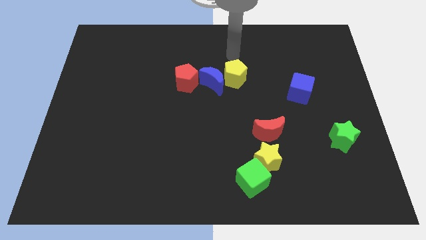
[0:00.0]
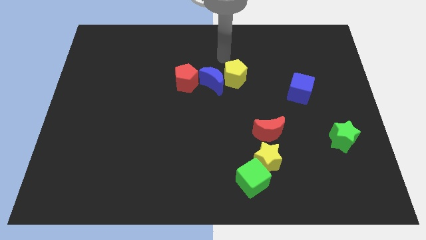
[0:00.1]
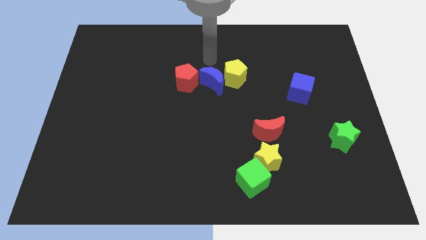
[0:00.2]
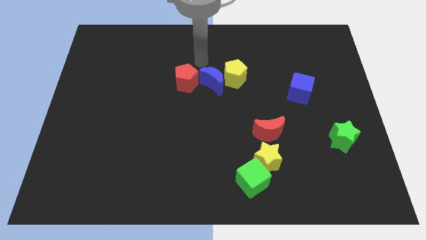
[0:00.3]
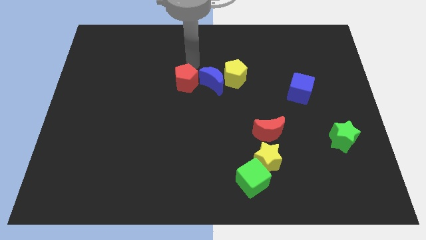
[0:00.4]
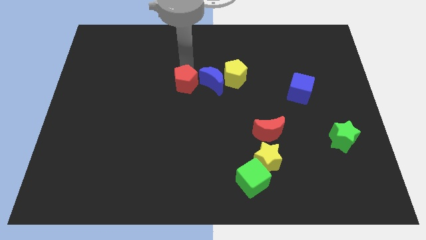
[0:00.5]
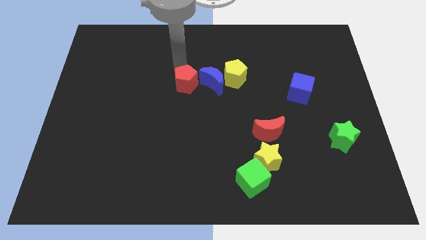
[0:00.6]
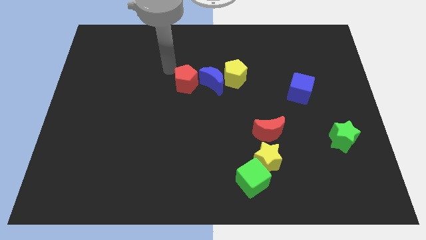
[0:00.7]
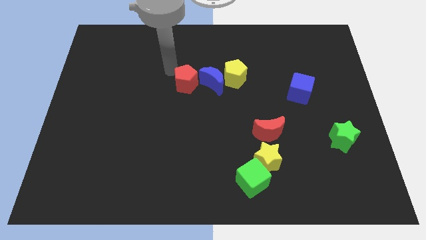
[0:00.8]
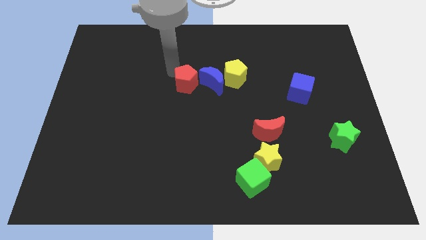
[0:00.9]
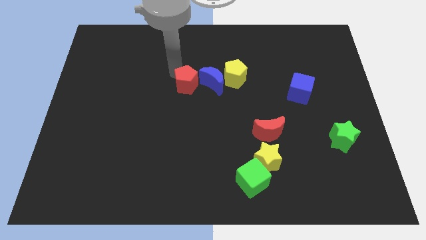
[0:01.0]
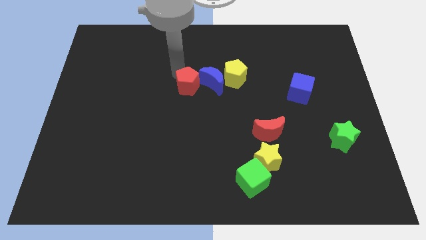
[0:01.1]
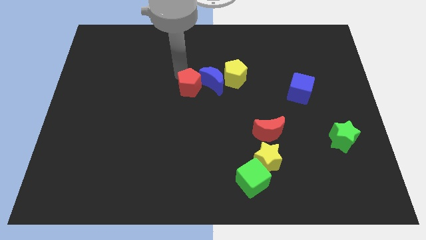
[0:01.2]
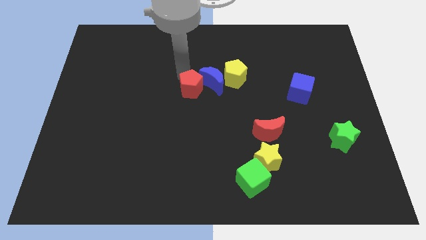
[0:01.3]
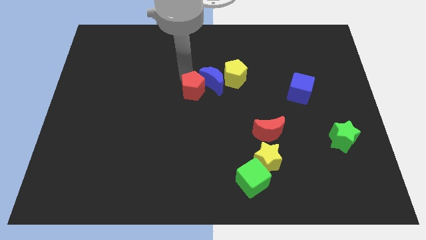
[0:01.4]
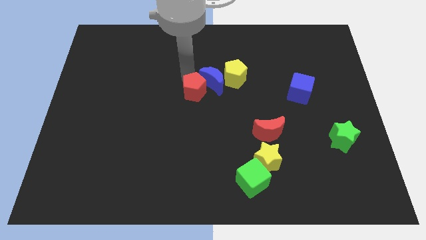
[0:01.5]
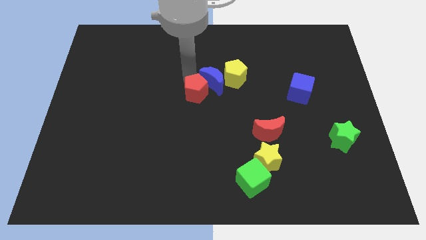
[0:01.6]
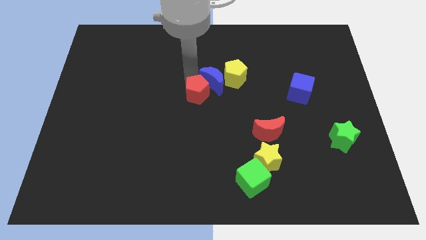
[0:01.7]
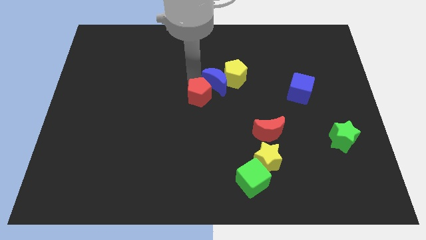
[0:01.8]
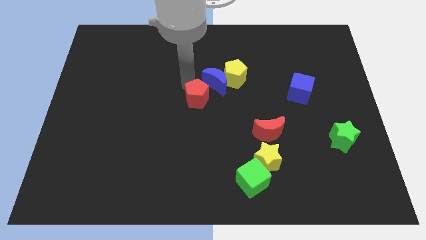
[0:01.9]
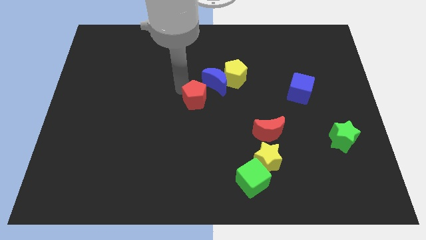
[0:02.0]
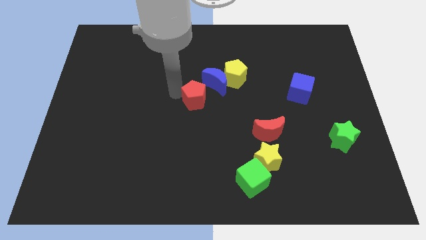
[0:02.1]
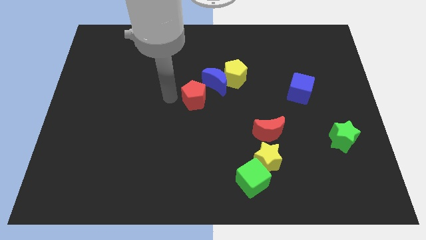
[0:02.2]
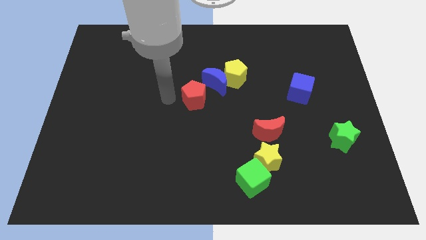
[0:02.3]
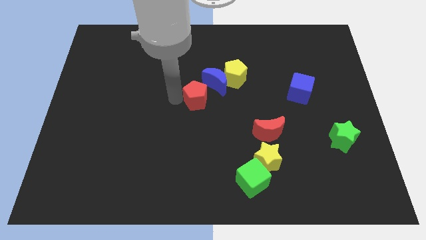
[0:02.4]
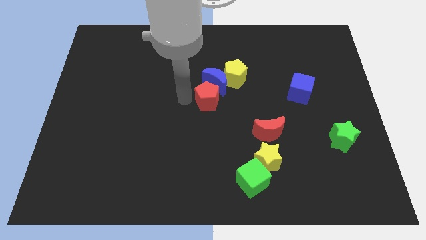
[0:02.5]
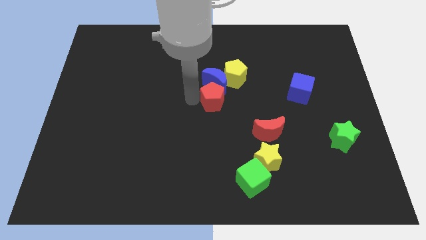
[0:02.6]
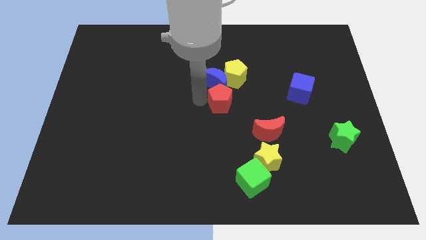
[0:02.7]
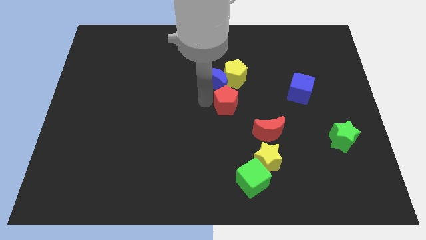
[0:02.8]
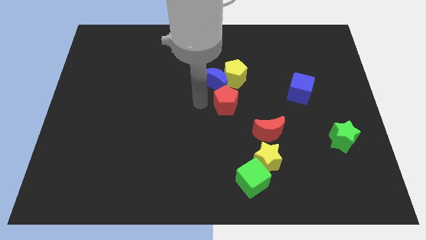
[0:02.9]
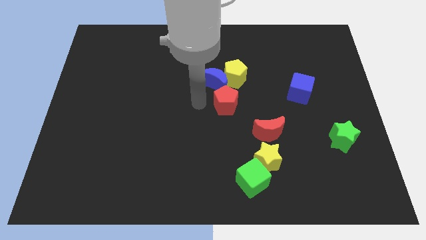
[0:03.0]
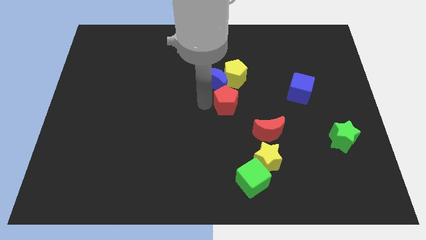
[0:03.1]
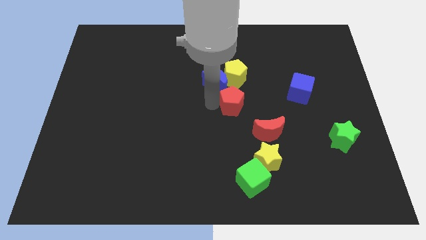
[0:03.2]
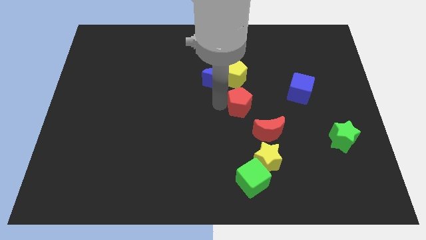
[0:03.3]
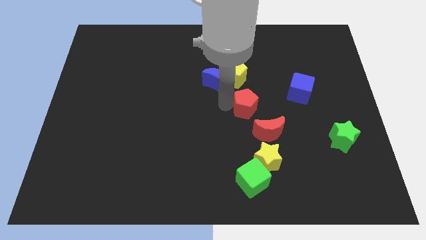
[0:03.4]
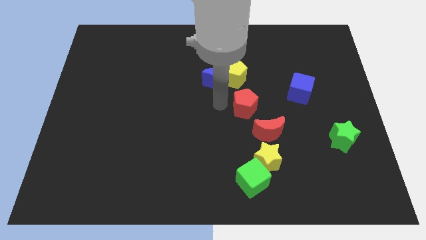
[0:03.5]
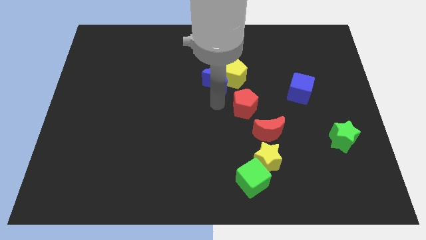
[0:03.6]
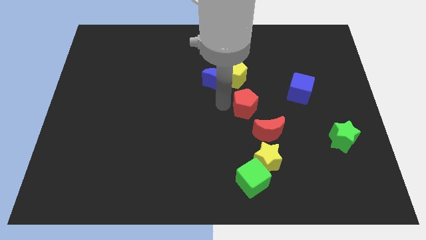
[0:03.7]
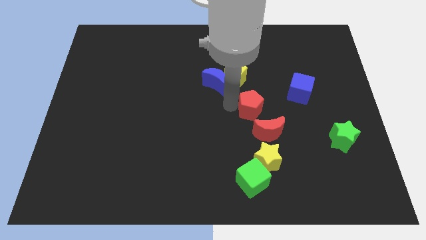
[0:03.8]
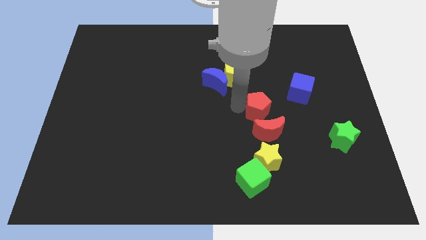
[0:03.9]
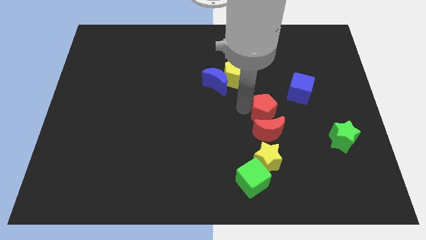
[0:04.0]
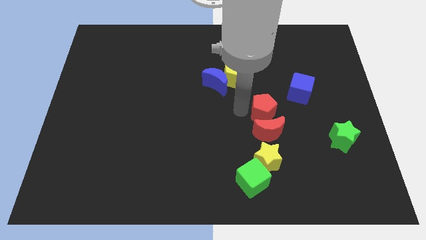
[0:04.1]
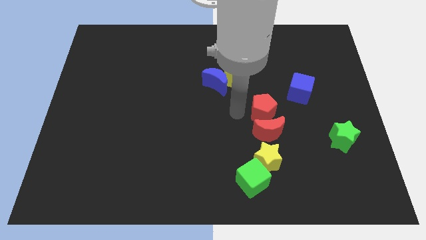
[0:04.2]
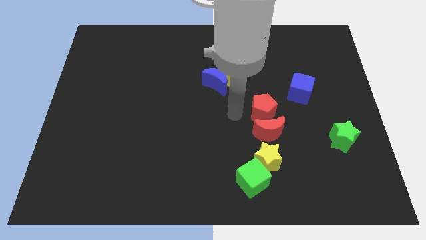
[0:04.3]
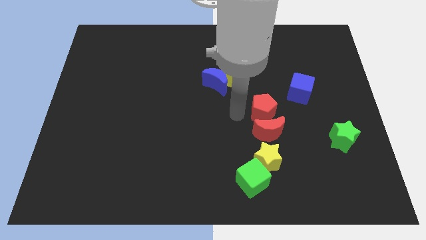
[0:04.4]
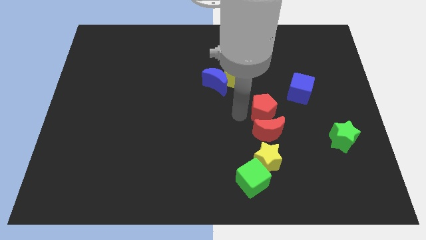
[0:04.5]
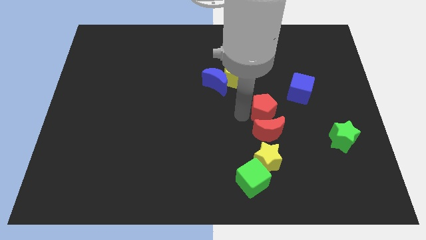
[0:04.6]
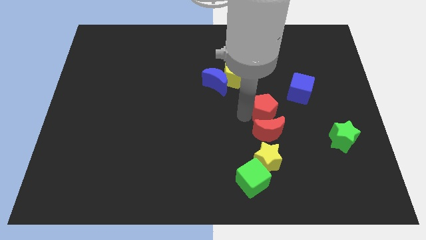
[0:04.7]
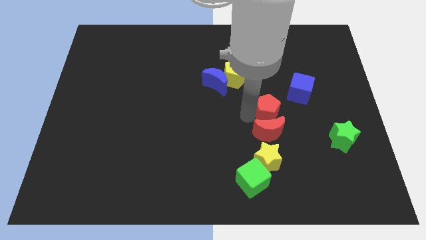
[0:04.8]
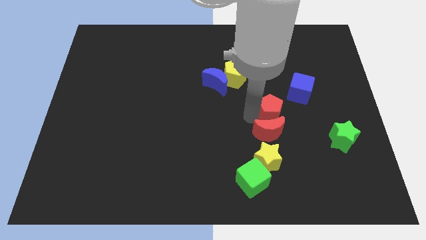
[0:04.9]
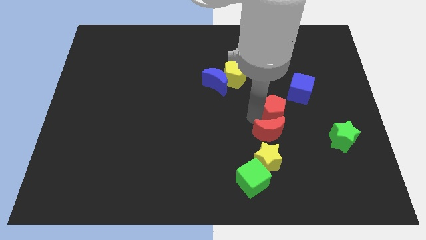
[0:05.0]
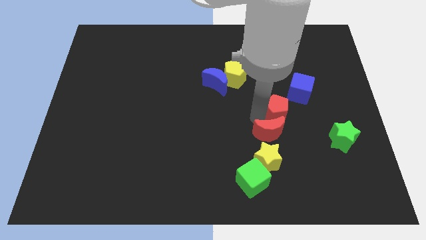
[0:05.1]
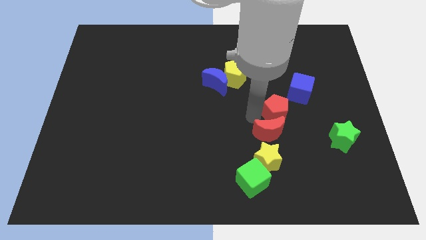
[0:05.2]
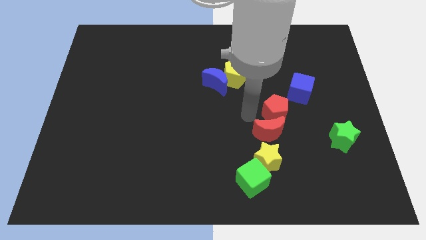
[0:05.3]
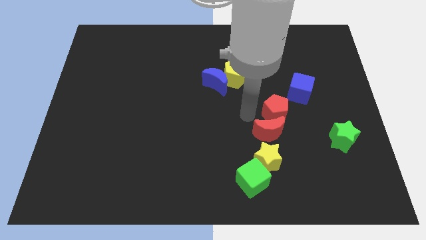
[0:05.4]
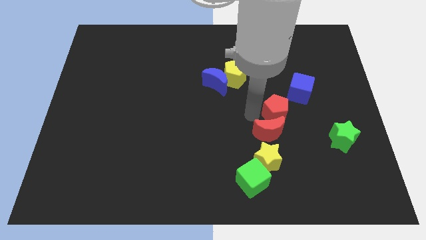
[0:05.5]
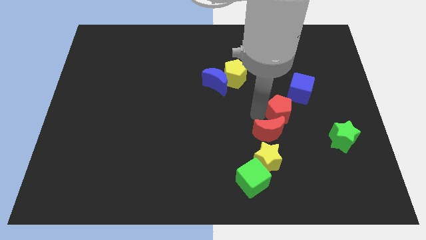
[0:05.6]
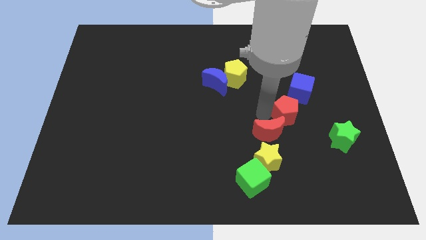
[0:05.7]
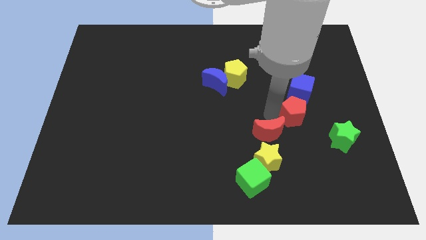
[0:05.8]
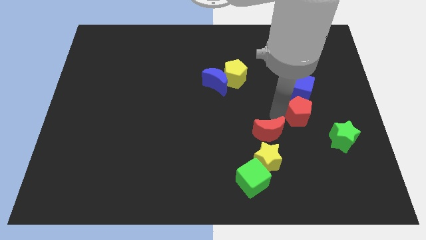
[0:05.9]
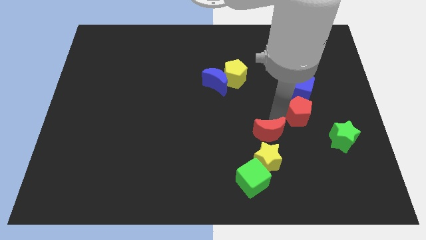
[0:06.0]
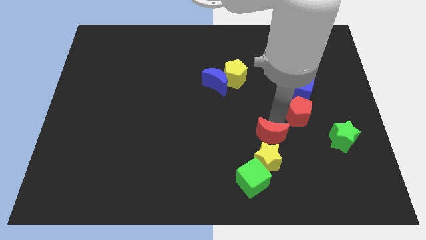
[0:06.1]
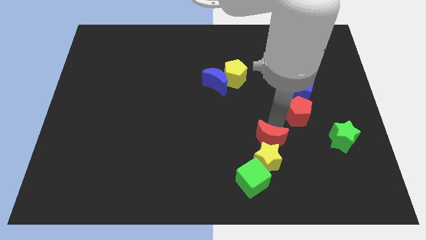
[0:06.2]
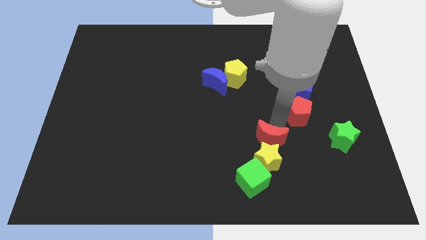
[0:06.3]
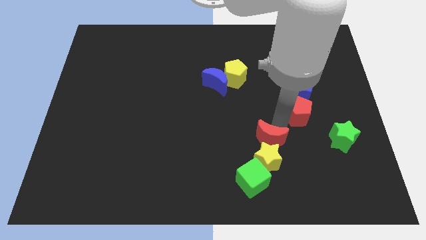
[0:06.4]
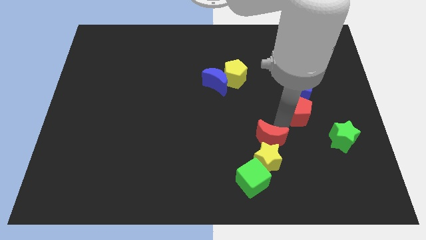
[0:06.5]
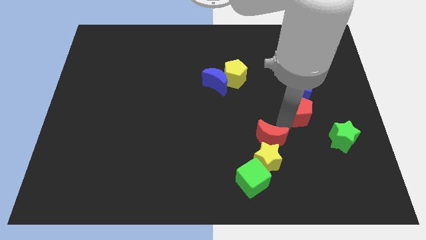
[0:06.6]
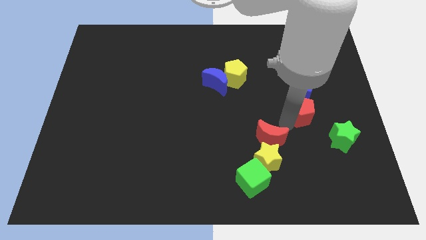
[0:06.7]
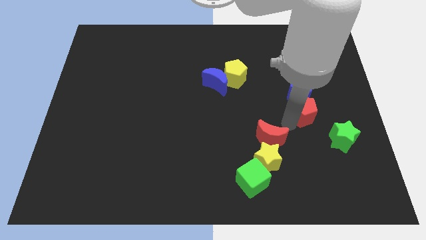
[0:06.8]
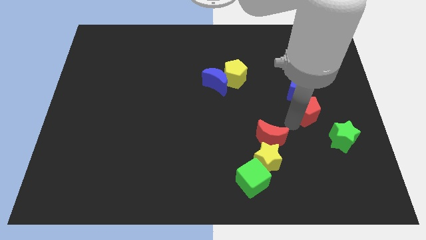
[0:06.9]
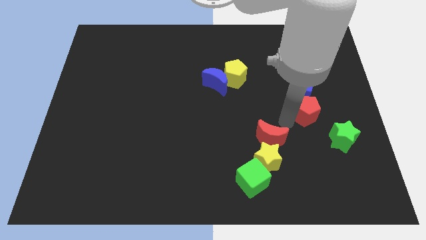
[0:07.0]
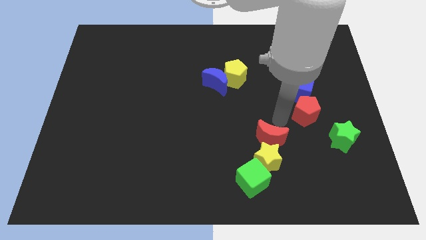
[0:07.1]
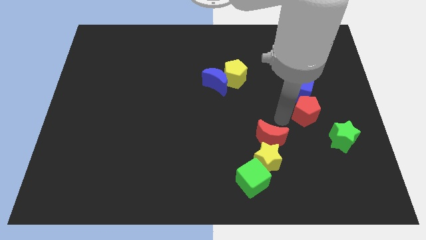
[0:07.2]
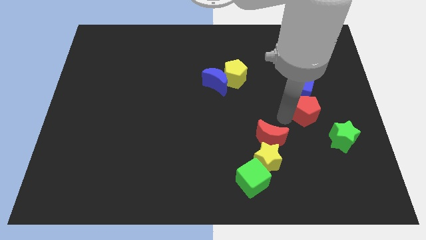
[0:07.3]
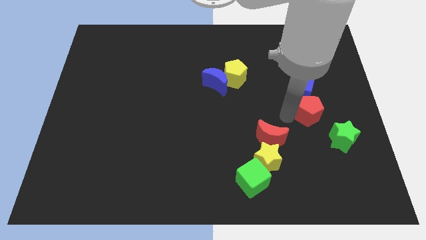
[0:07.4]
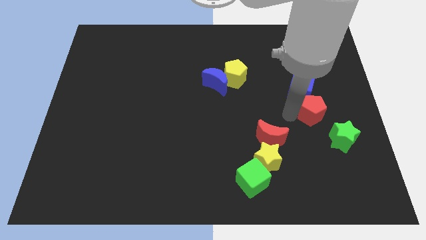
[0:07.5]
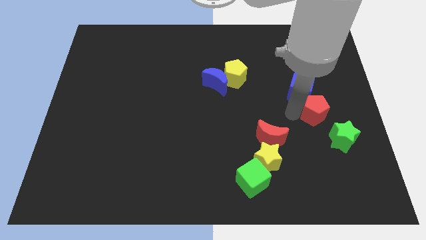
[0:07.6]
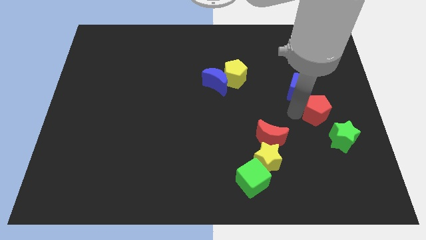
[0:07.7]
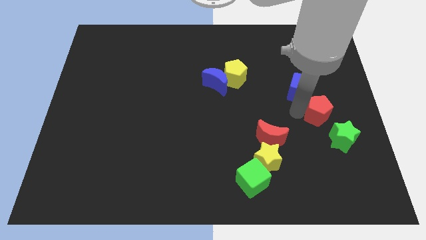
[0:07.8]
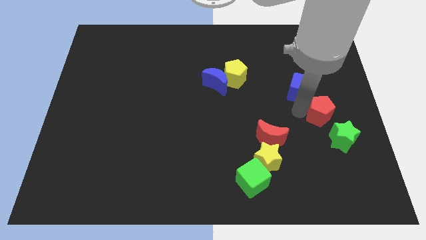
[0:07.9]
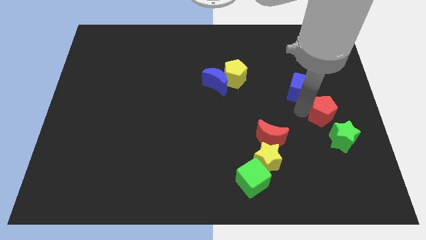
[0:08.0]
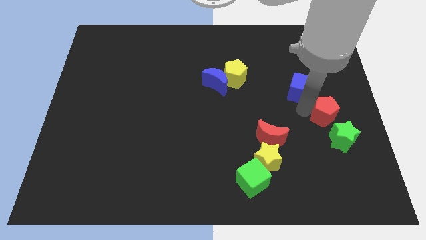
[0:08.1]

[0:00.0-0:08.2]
move the red pentagon to the right side
